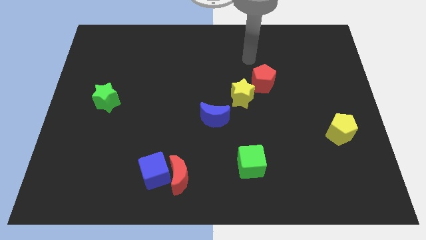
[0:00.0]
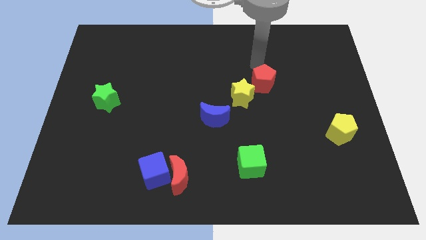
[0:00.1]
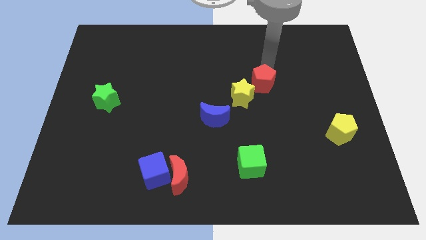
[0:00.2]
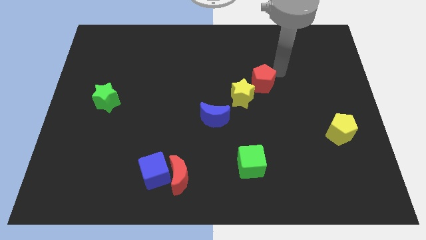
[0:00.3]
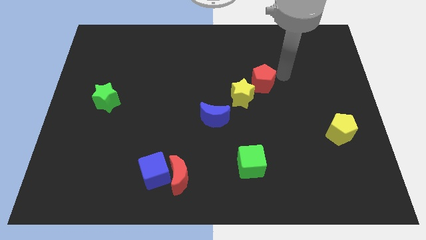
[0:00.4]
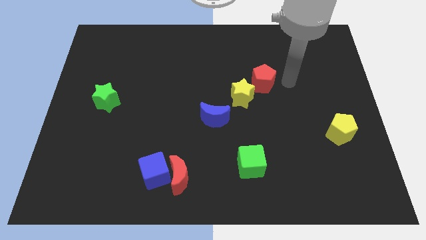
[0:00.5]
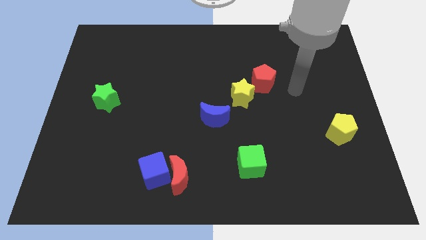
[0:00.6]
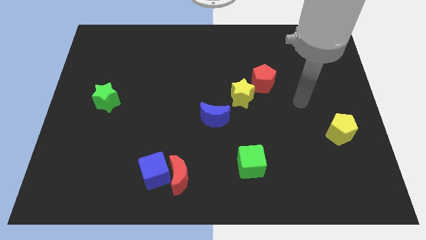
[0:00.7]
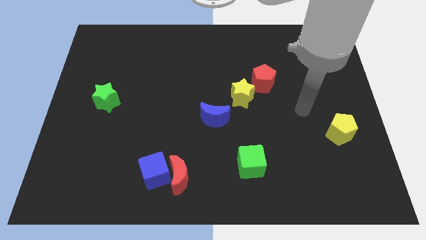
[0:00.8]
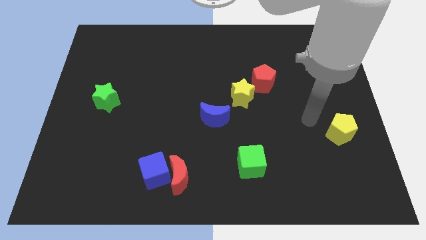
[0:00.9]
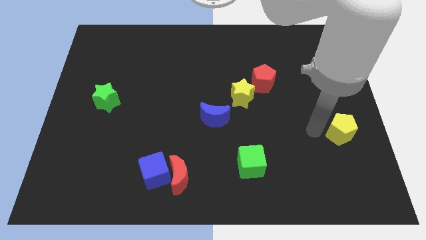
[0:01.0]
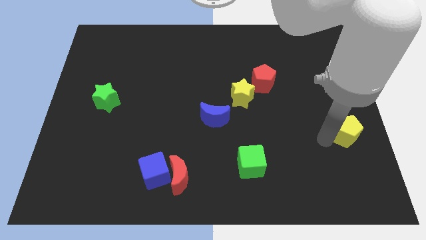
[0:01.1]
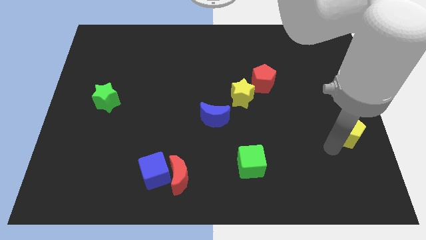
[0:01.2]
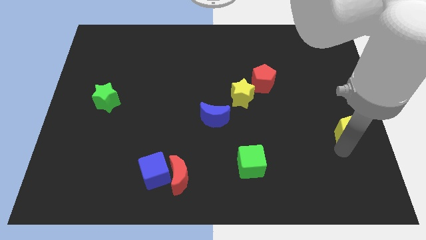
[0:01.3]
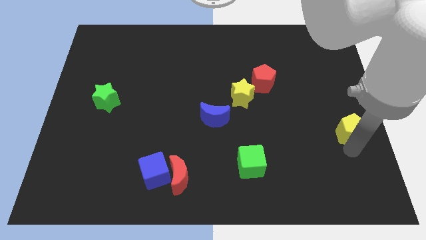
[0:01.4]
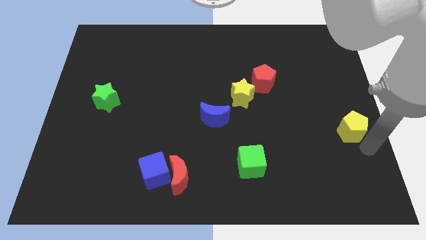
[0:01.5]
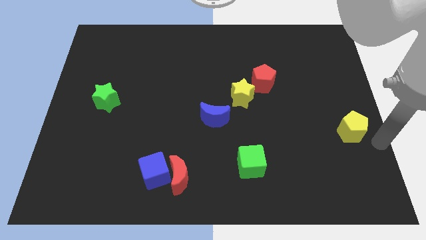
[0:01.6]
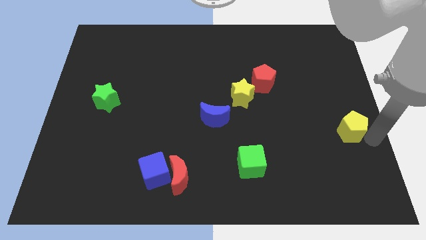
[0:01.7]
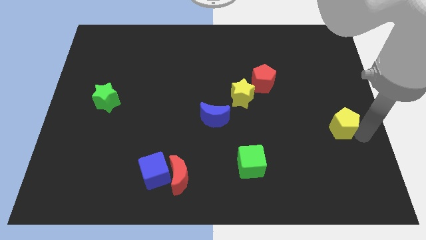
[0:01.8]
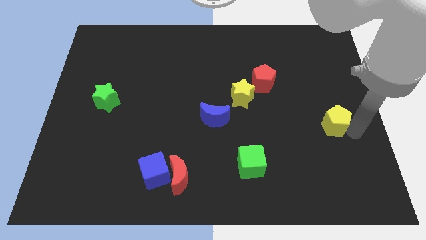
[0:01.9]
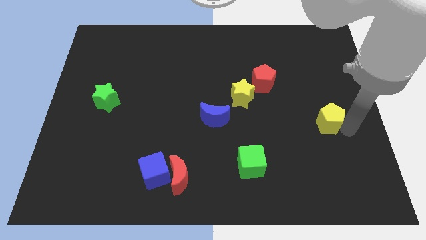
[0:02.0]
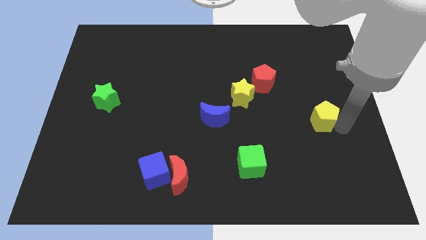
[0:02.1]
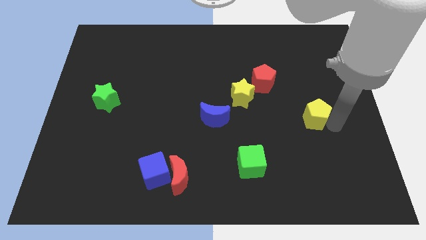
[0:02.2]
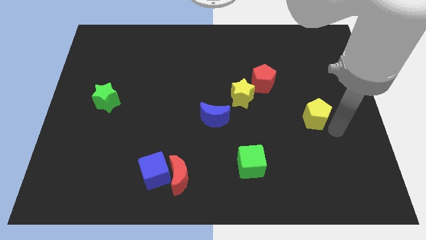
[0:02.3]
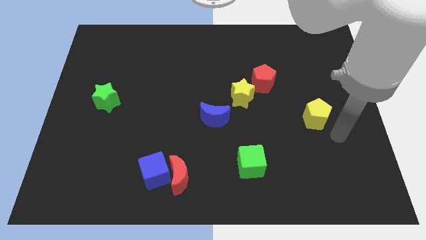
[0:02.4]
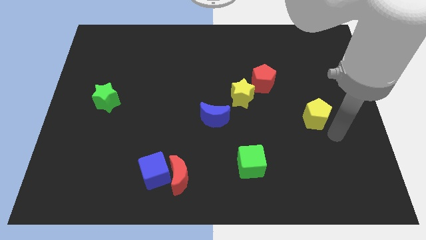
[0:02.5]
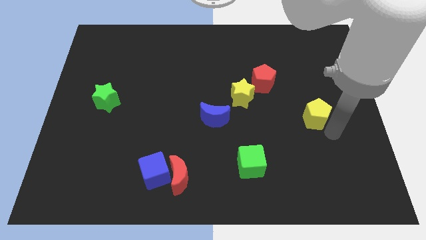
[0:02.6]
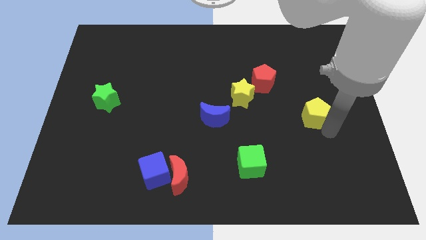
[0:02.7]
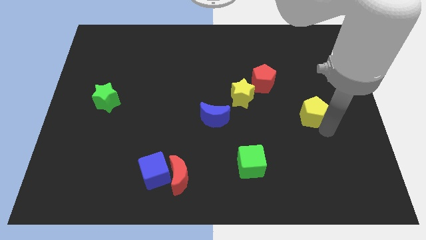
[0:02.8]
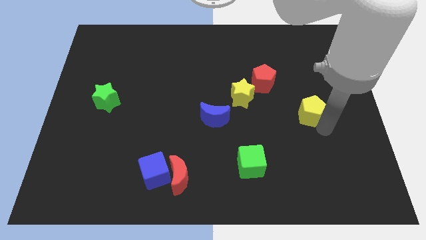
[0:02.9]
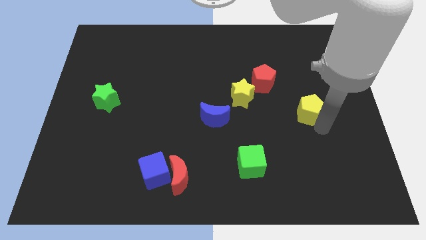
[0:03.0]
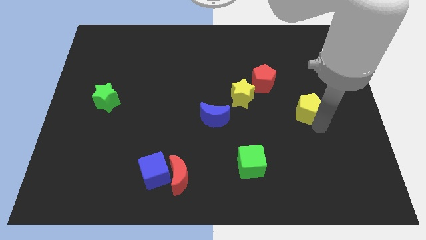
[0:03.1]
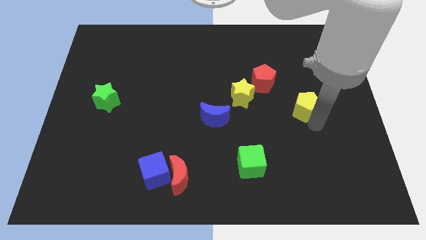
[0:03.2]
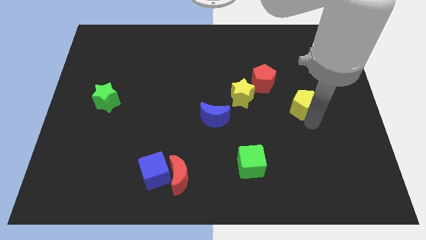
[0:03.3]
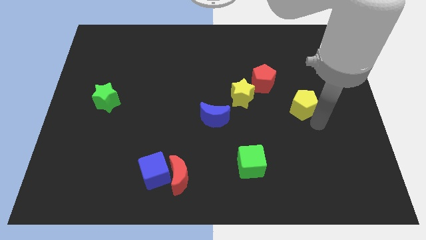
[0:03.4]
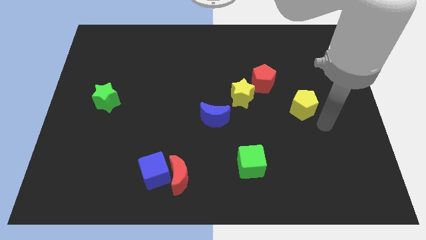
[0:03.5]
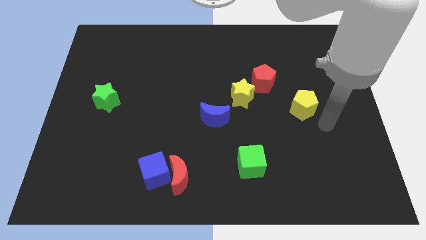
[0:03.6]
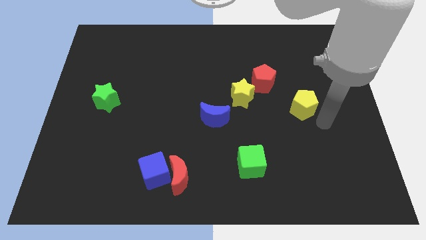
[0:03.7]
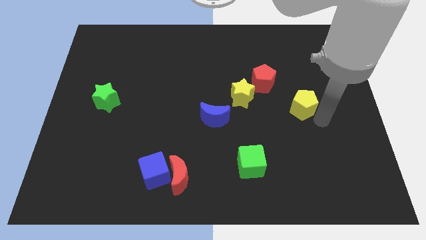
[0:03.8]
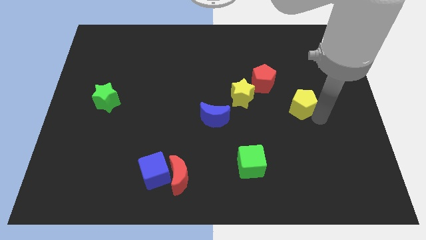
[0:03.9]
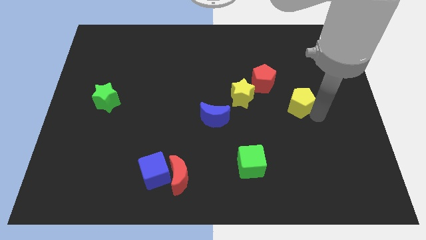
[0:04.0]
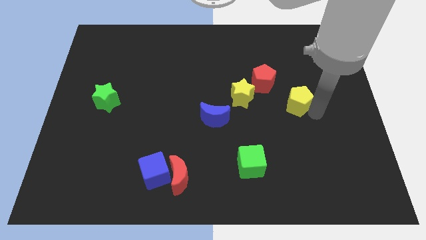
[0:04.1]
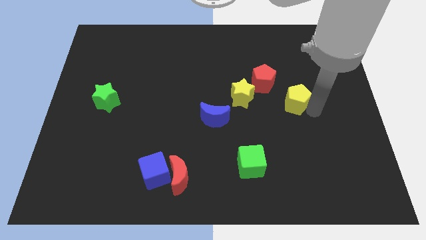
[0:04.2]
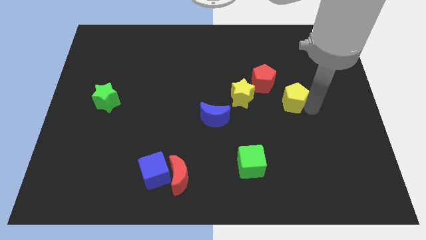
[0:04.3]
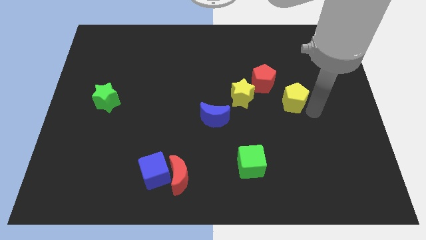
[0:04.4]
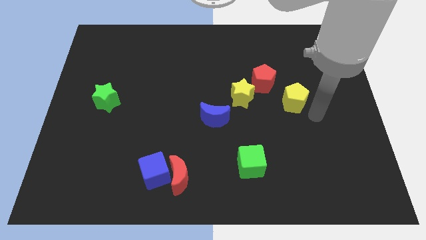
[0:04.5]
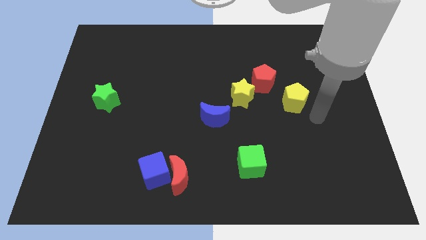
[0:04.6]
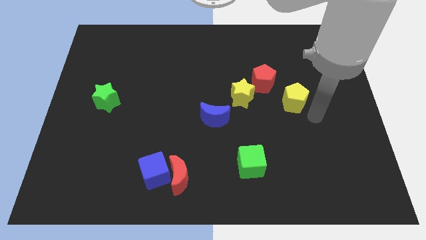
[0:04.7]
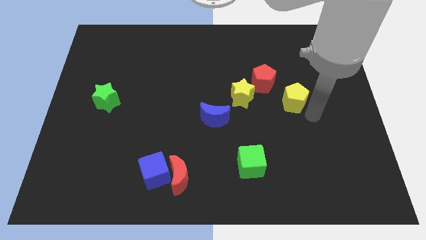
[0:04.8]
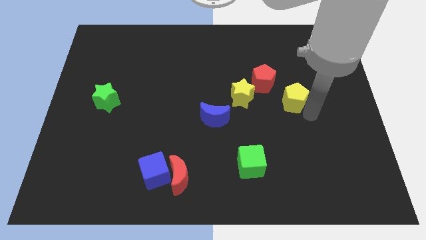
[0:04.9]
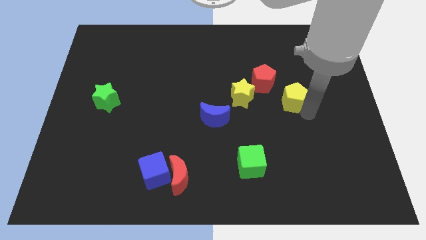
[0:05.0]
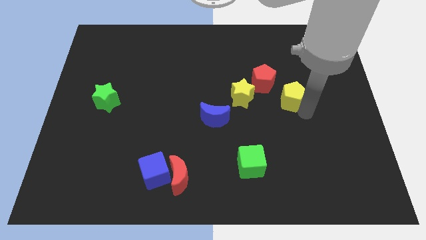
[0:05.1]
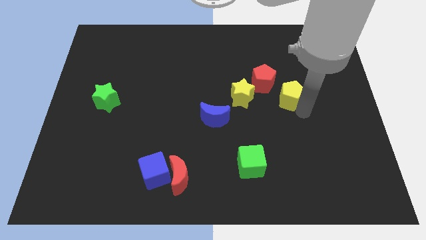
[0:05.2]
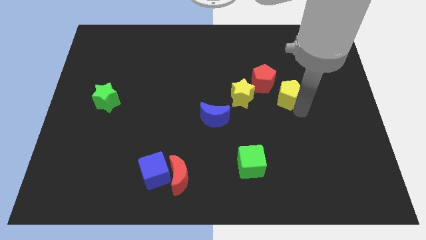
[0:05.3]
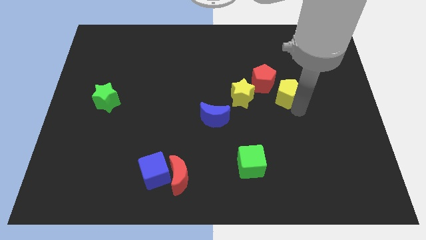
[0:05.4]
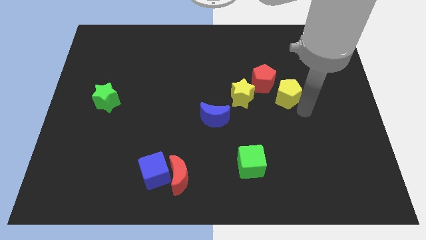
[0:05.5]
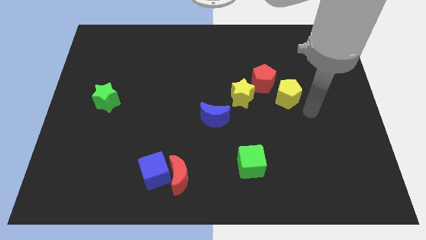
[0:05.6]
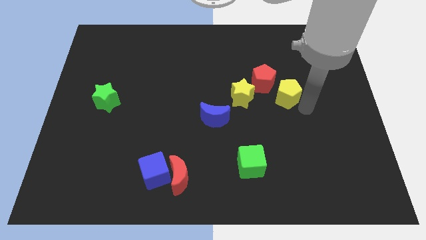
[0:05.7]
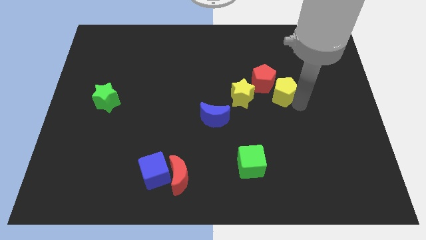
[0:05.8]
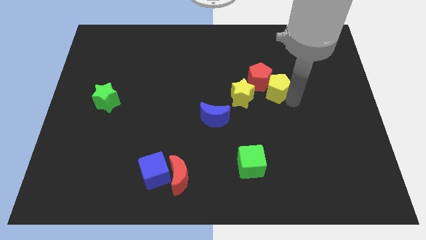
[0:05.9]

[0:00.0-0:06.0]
put the yellow pentagon next to the red pentagon

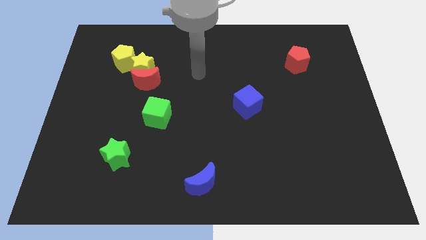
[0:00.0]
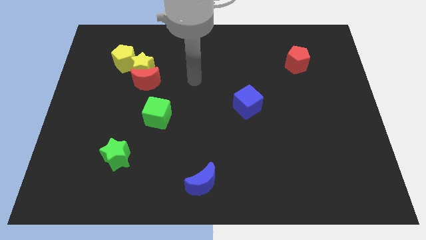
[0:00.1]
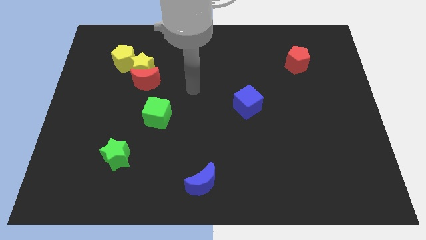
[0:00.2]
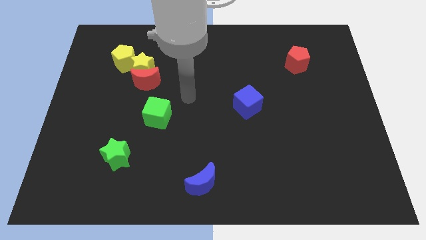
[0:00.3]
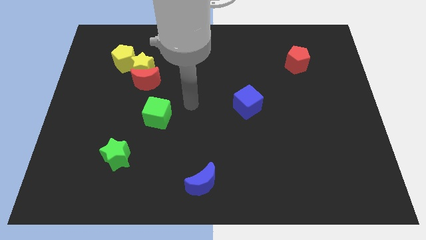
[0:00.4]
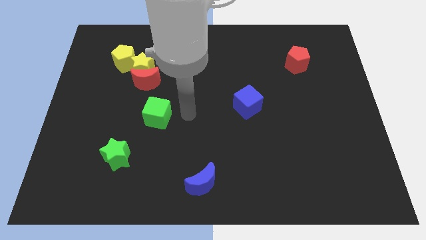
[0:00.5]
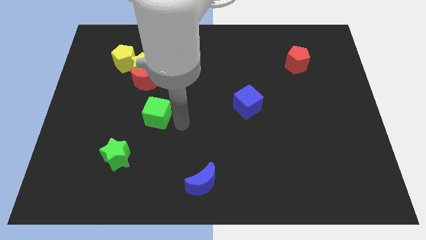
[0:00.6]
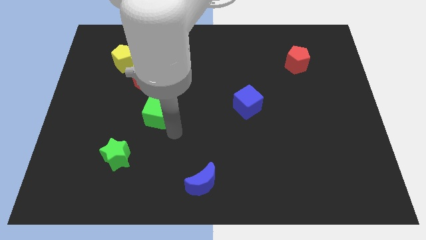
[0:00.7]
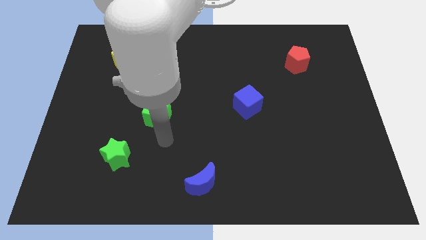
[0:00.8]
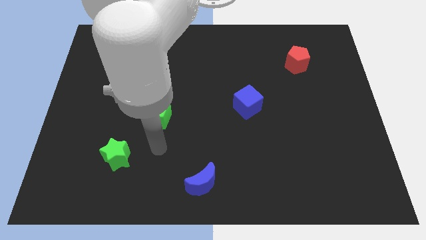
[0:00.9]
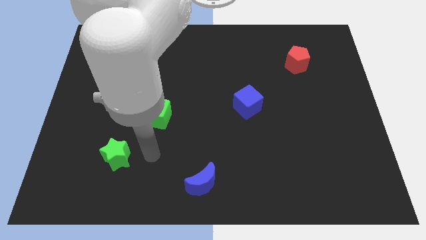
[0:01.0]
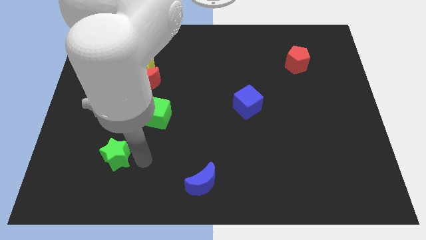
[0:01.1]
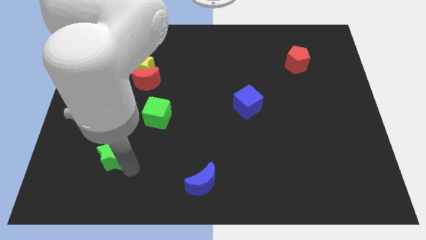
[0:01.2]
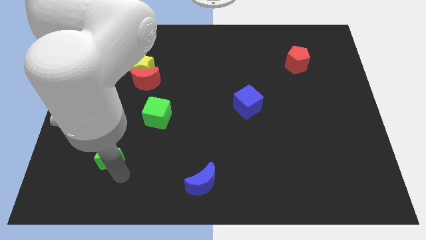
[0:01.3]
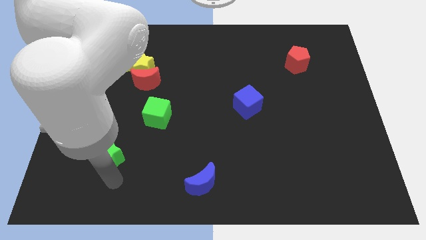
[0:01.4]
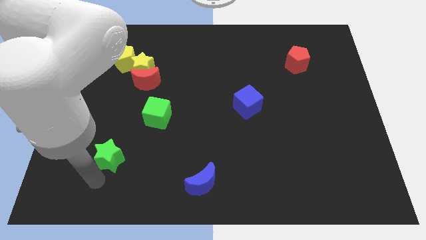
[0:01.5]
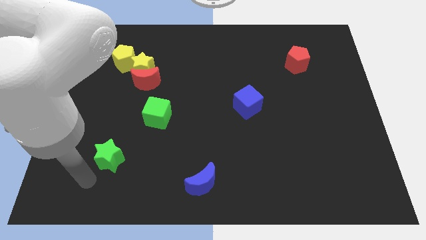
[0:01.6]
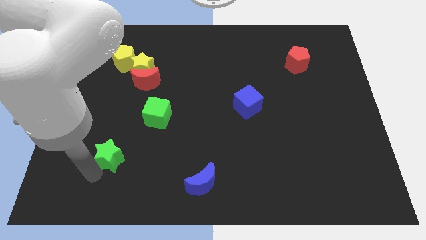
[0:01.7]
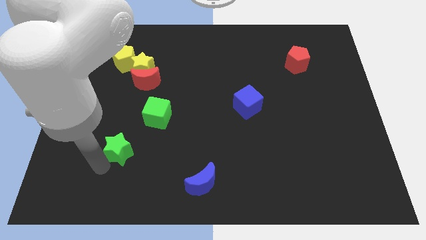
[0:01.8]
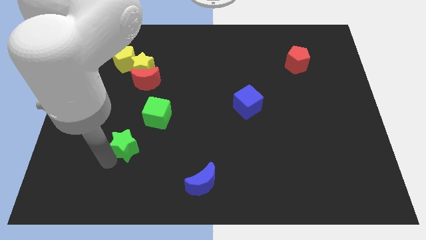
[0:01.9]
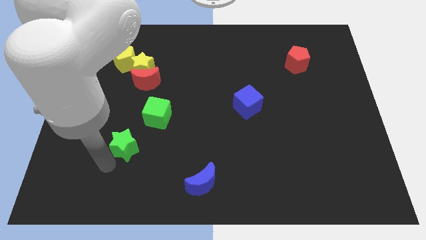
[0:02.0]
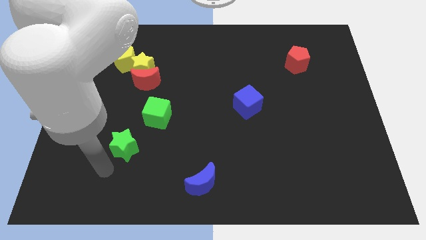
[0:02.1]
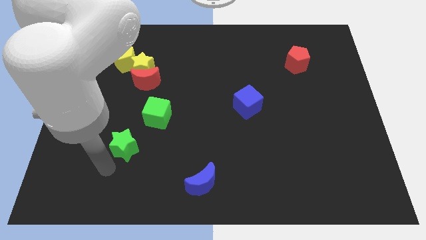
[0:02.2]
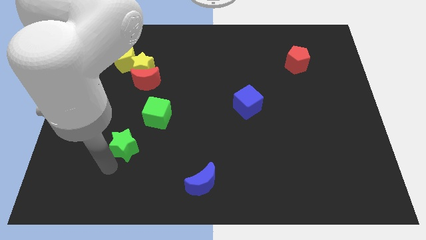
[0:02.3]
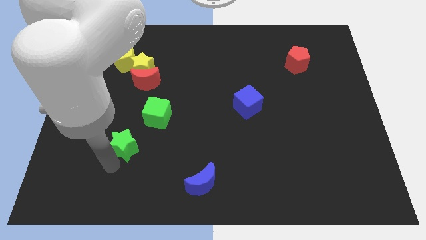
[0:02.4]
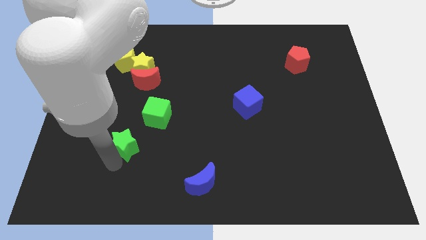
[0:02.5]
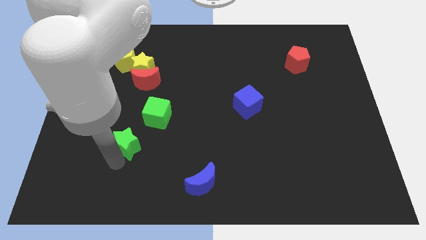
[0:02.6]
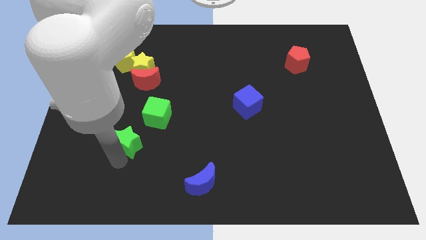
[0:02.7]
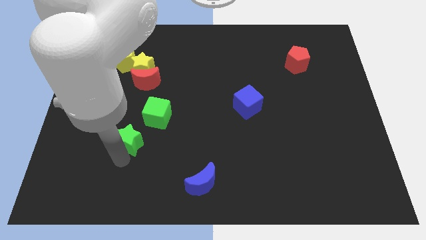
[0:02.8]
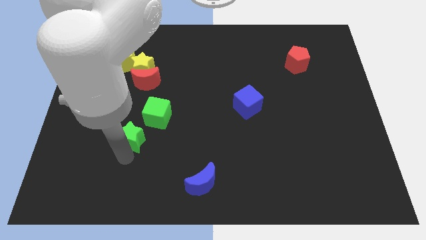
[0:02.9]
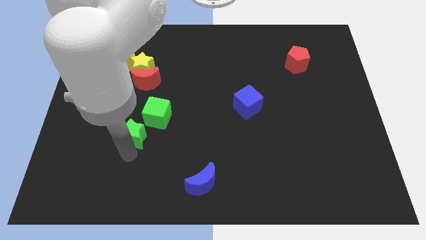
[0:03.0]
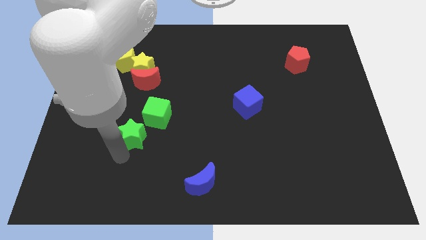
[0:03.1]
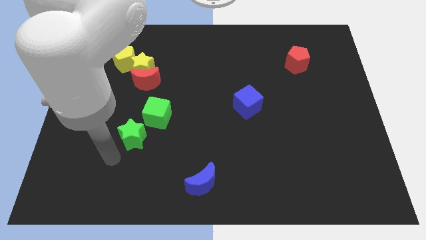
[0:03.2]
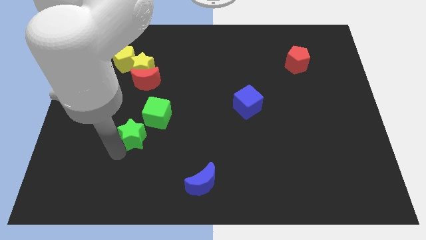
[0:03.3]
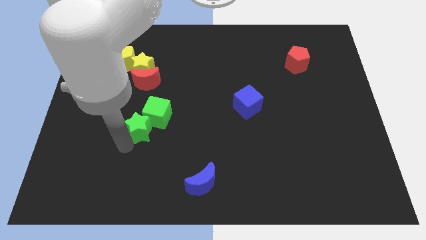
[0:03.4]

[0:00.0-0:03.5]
put the green star to the green cube
